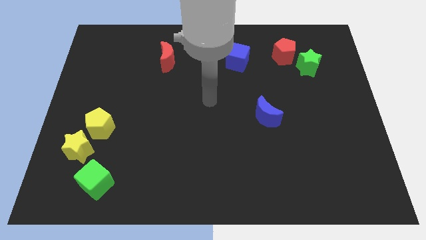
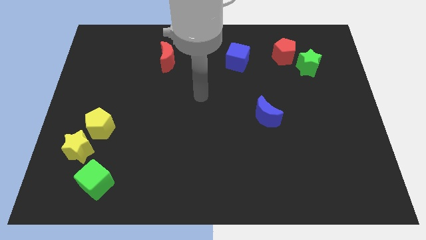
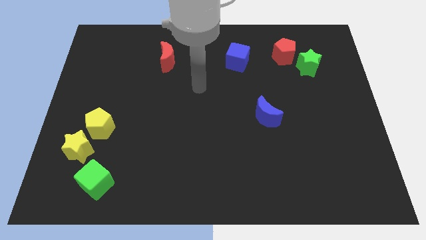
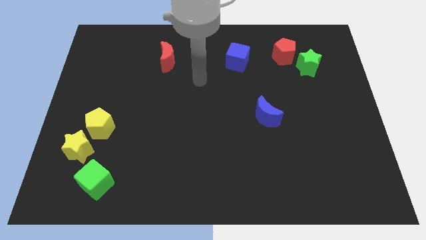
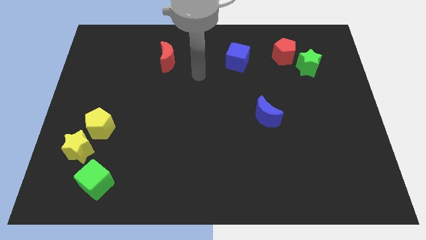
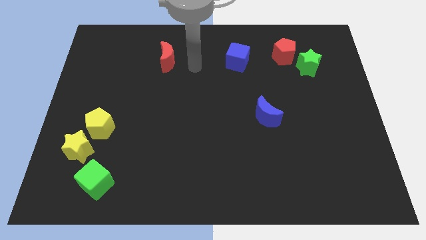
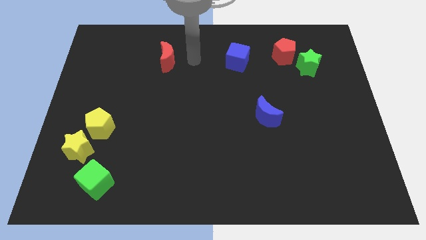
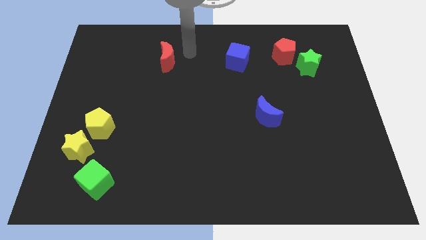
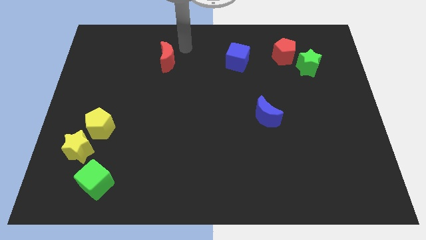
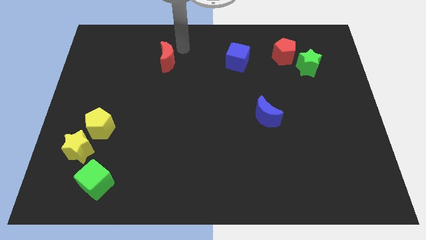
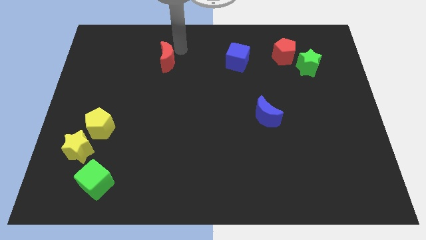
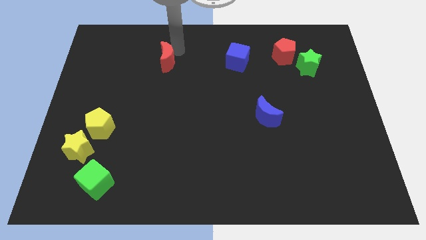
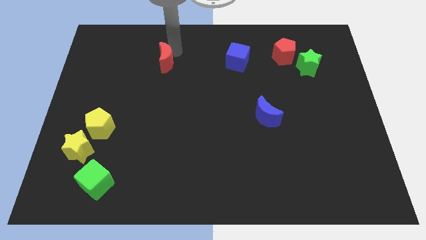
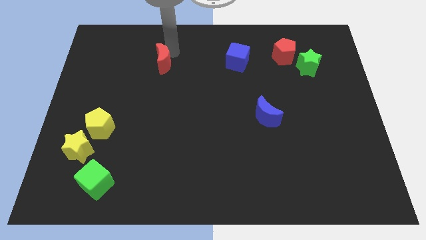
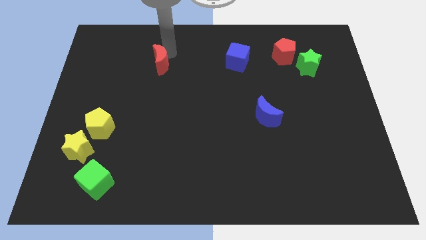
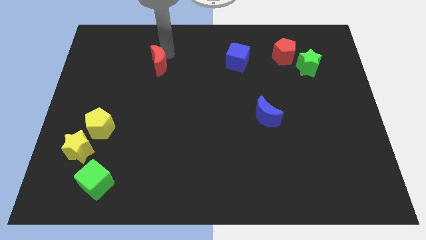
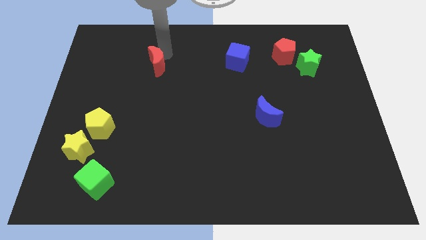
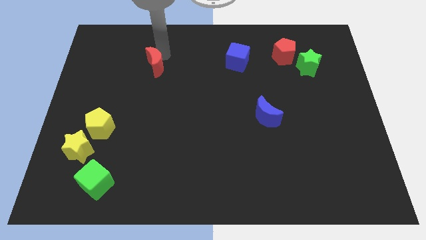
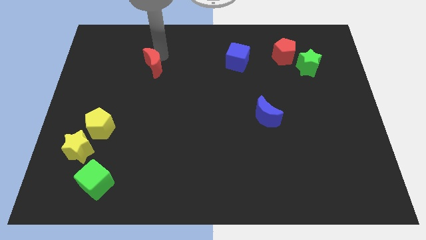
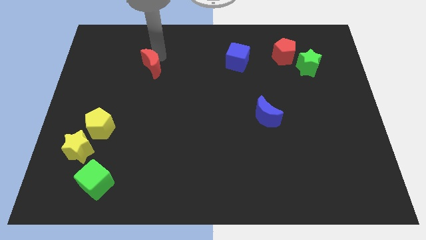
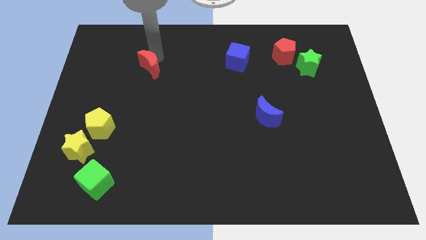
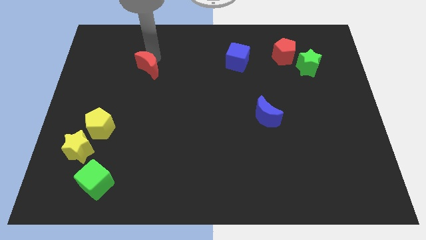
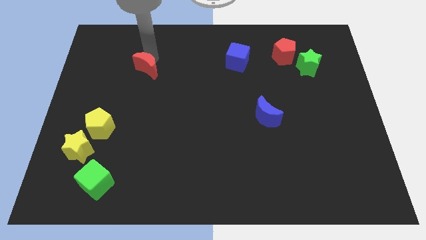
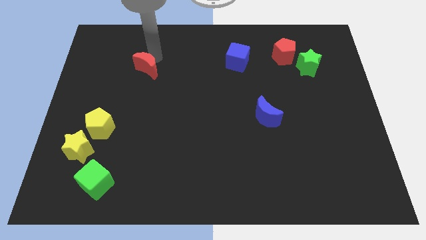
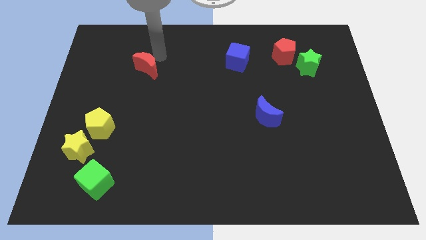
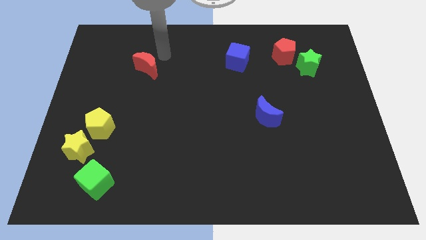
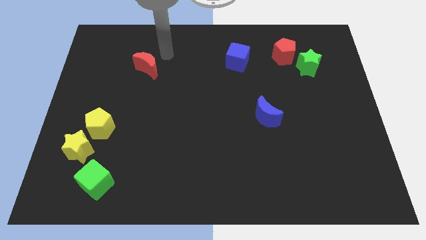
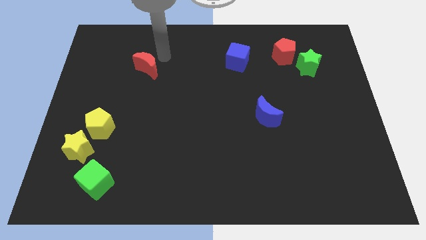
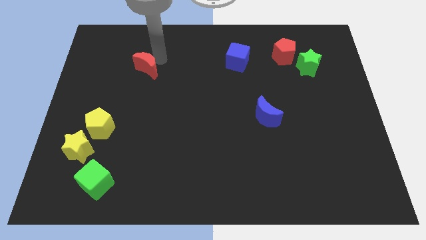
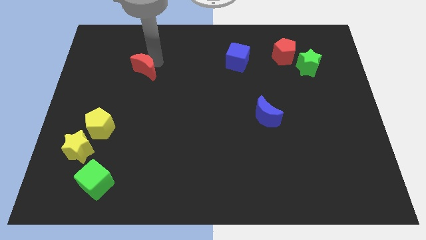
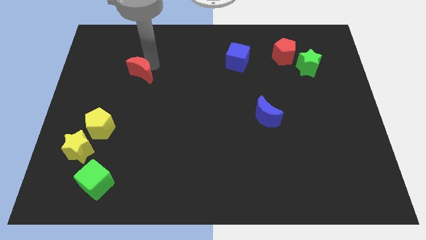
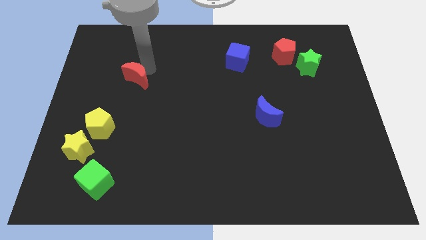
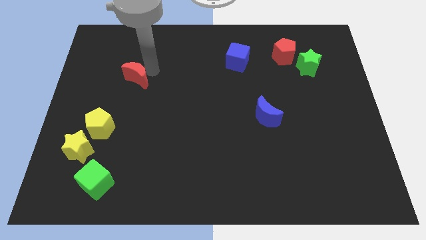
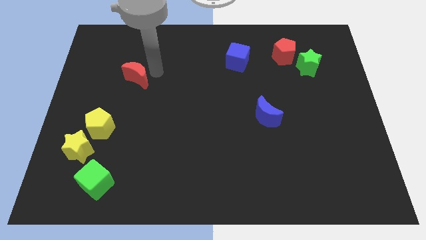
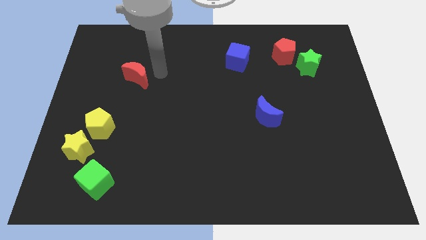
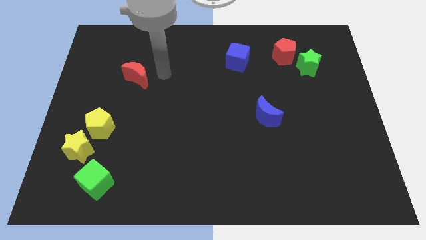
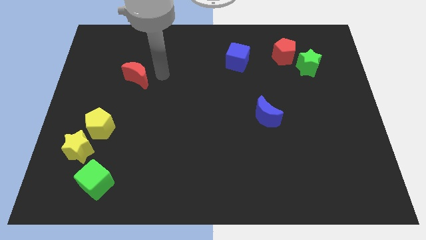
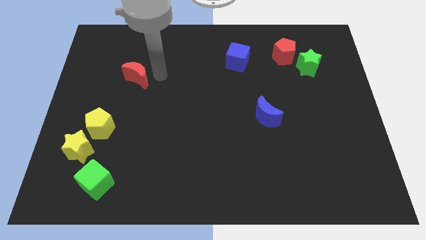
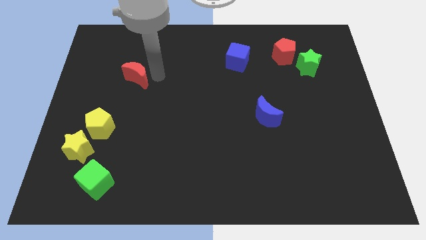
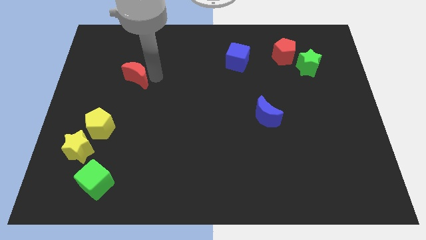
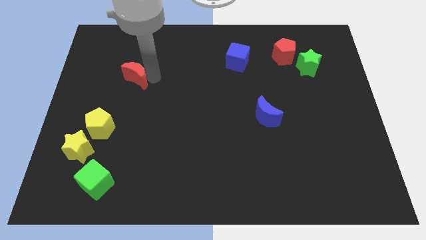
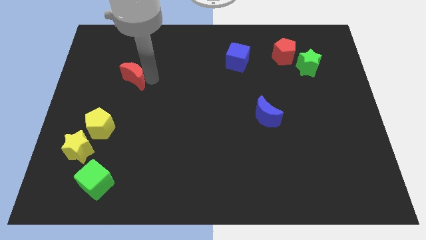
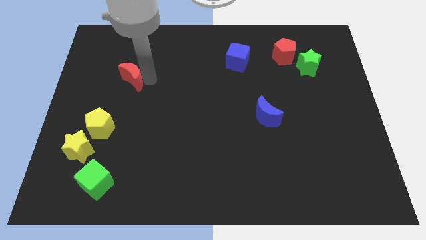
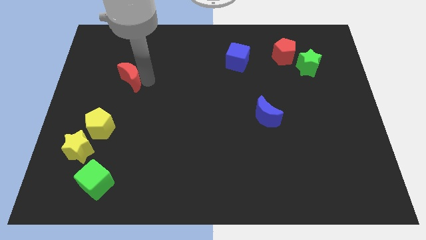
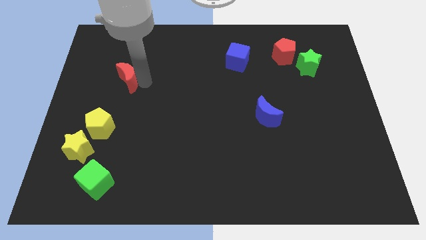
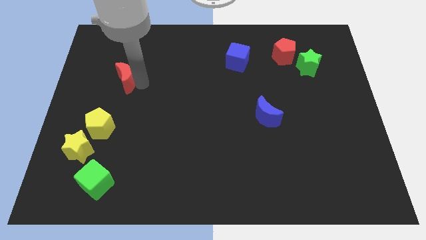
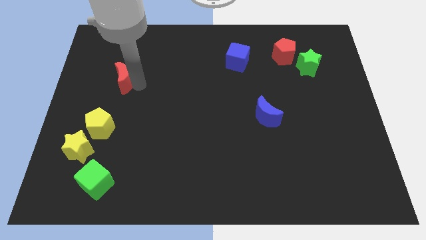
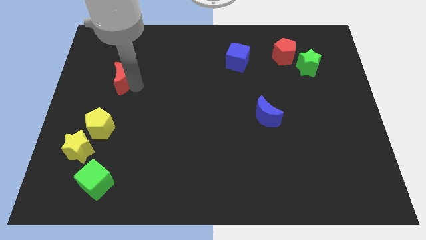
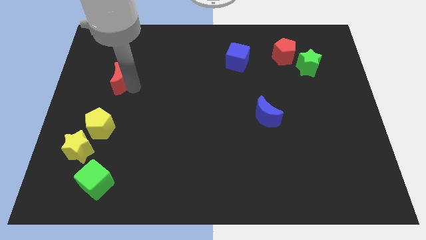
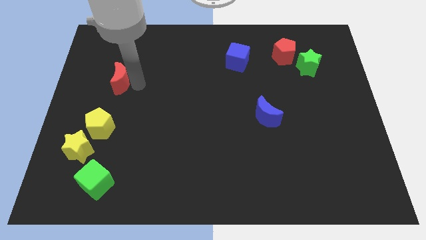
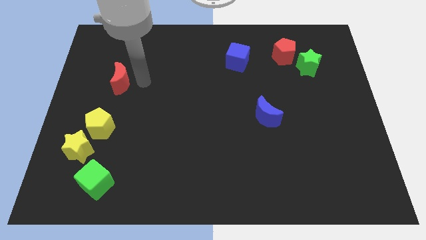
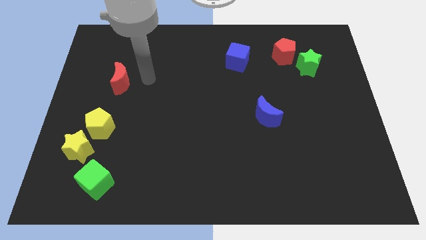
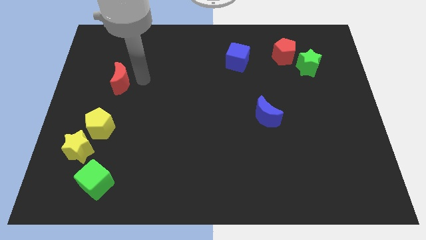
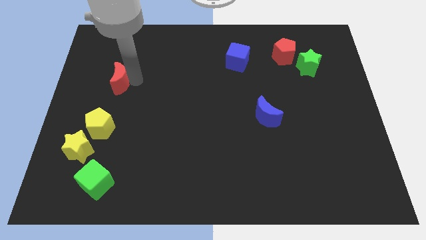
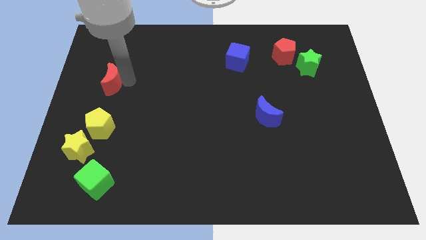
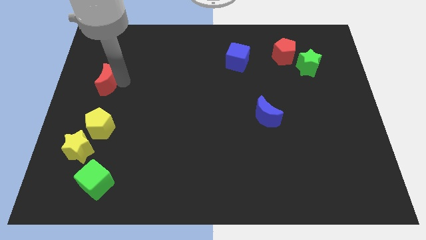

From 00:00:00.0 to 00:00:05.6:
slide the red moon to the left side of the board

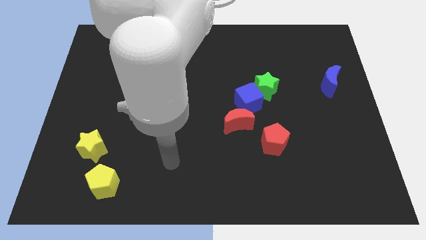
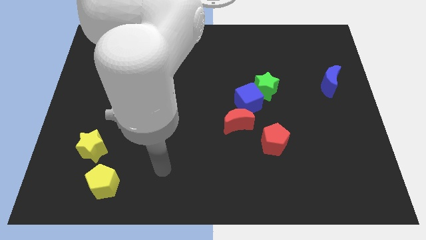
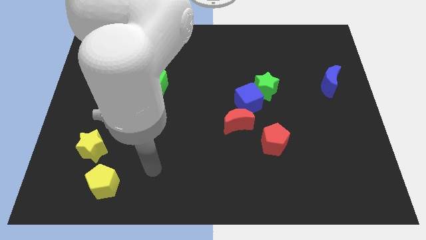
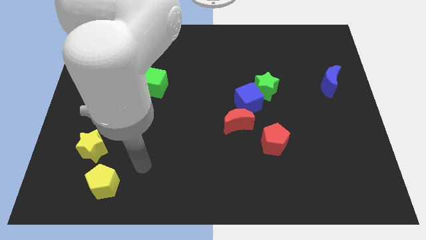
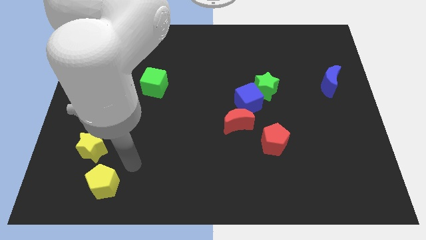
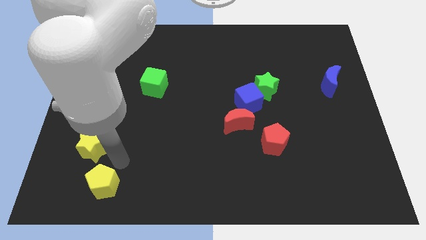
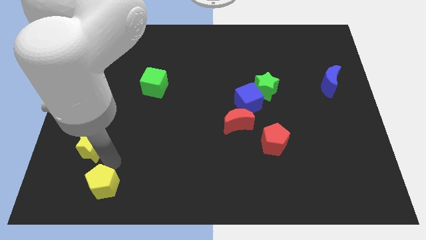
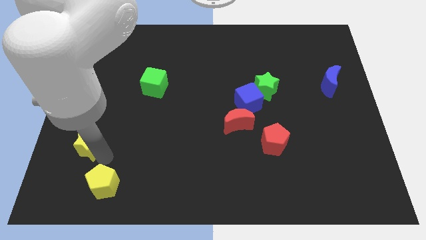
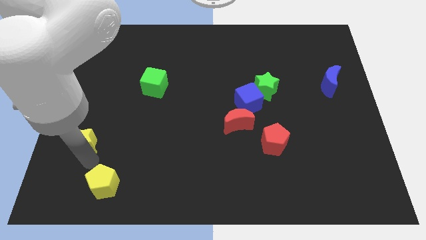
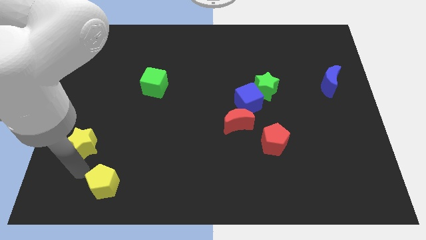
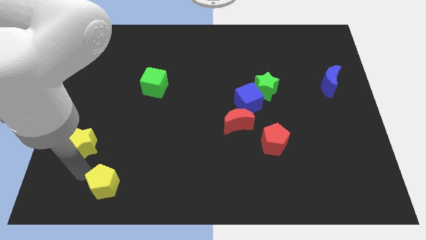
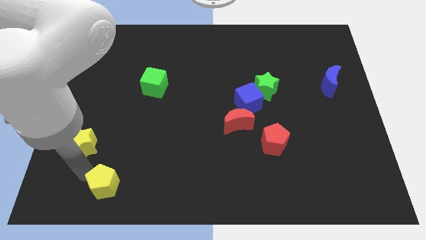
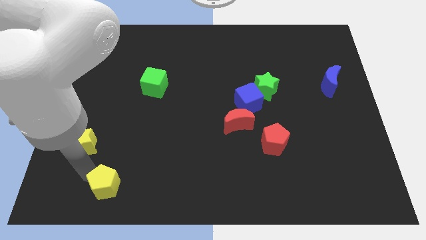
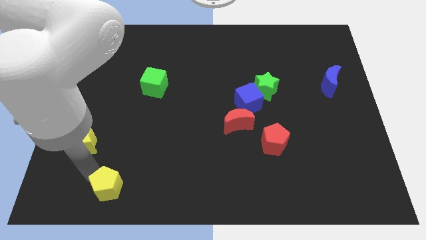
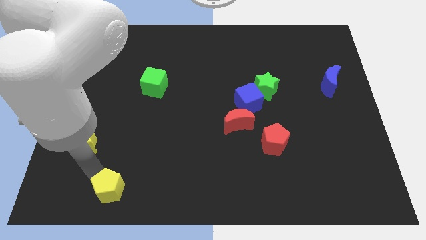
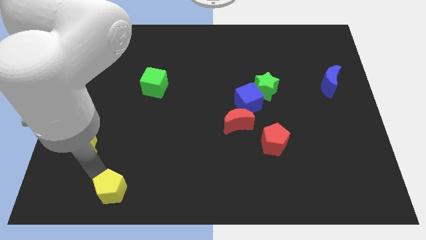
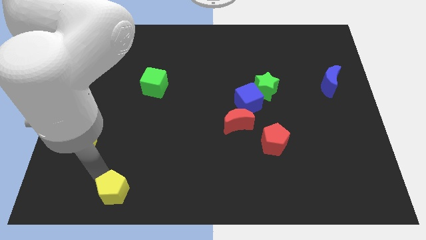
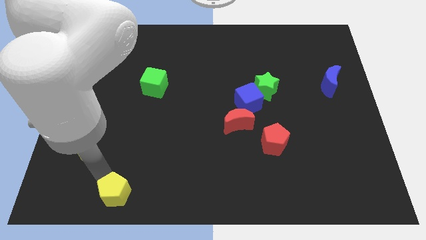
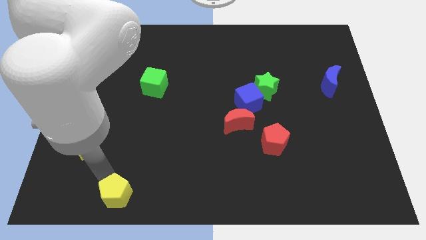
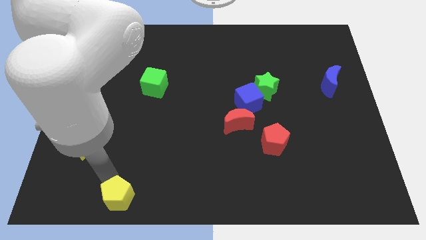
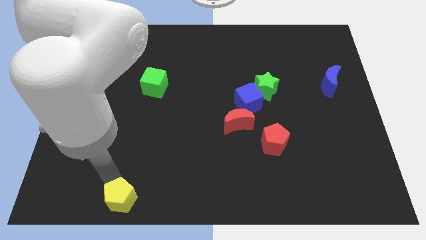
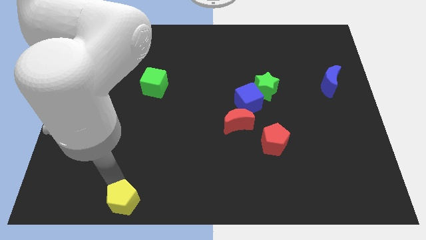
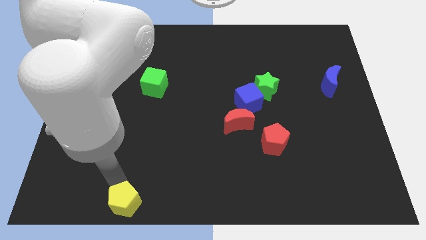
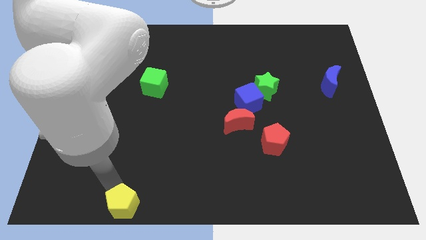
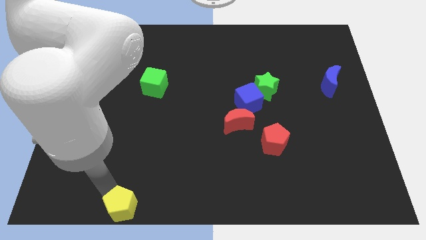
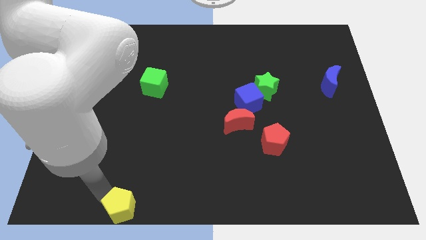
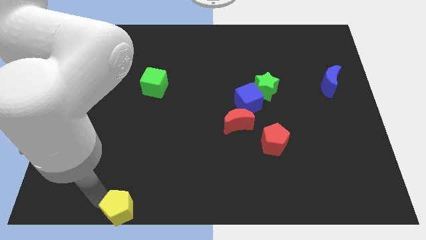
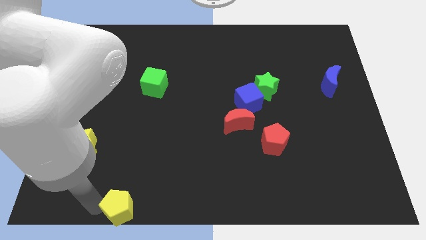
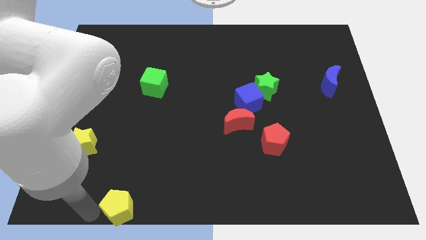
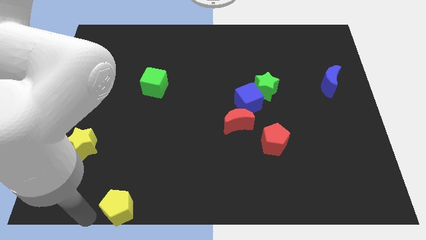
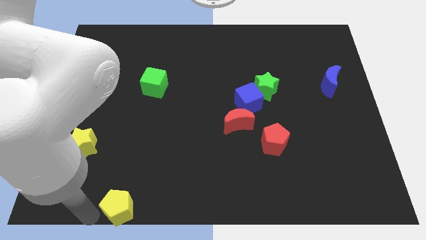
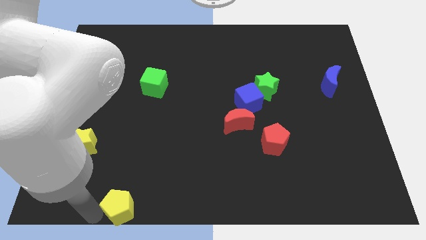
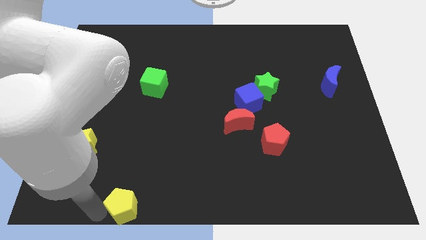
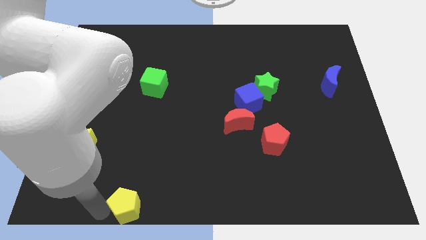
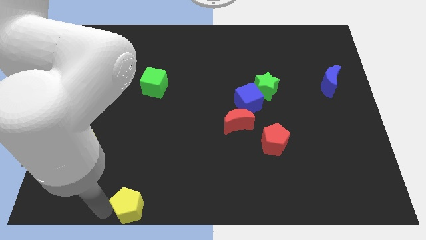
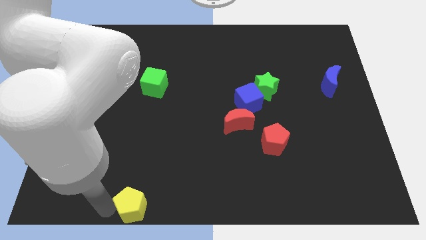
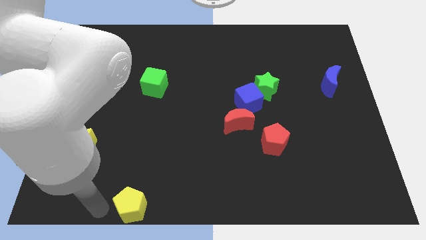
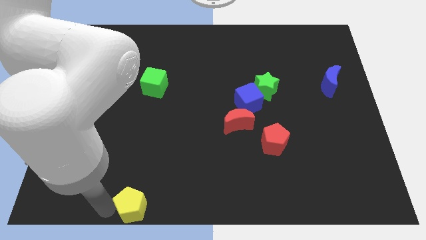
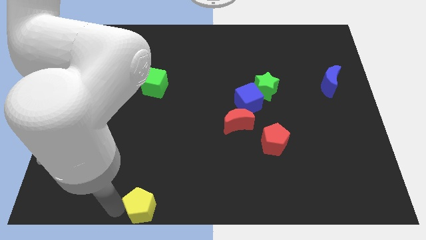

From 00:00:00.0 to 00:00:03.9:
move the yellow pentagon to the bottom
